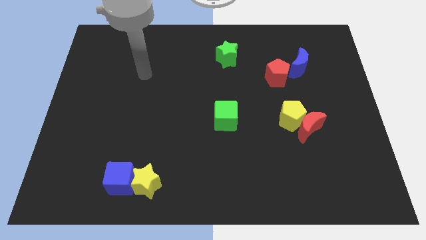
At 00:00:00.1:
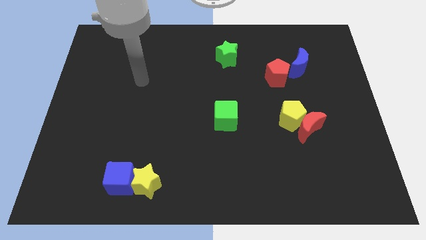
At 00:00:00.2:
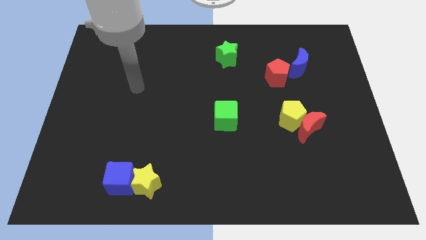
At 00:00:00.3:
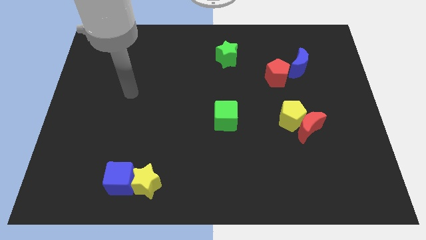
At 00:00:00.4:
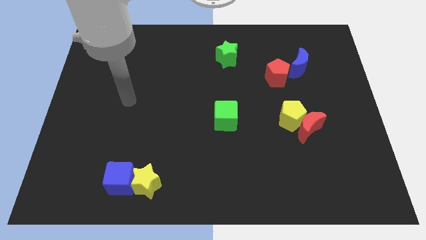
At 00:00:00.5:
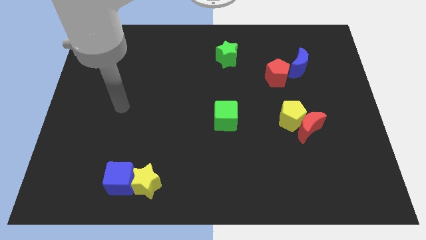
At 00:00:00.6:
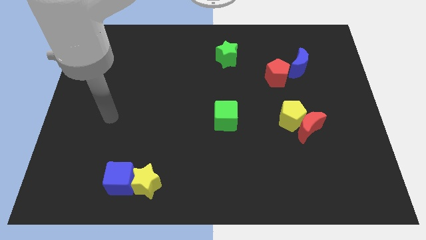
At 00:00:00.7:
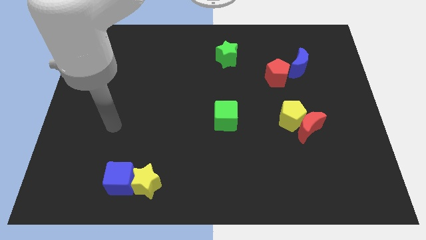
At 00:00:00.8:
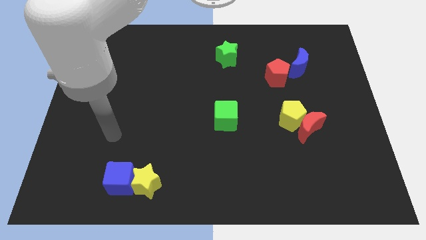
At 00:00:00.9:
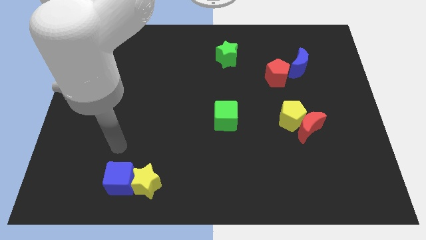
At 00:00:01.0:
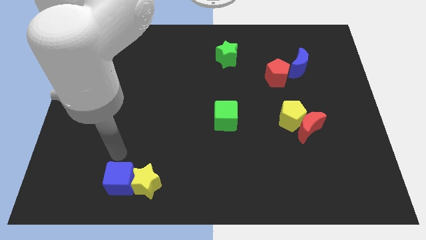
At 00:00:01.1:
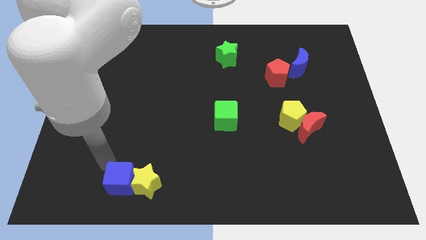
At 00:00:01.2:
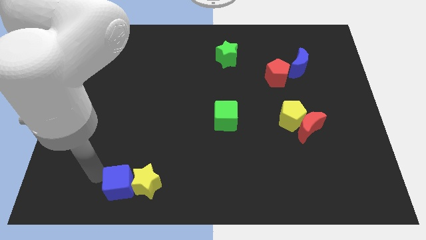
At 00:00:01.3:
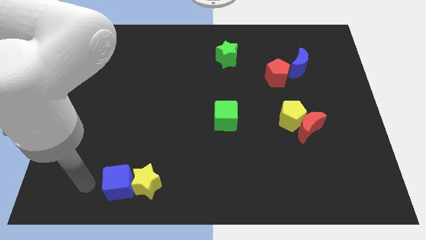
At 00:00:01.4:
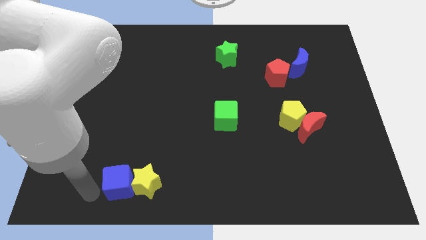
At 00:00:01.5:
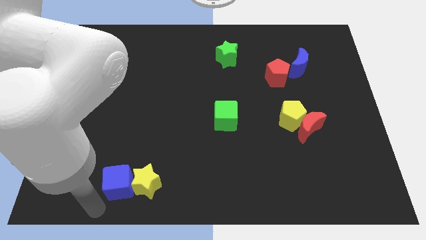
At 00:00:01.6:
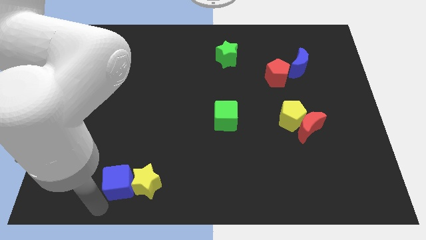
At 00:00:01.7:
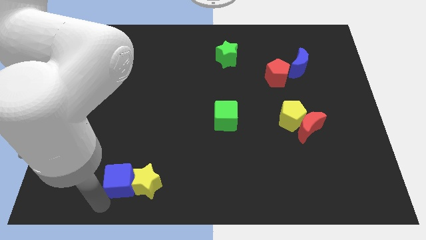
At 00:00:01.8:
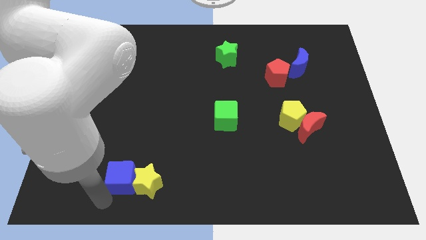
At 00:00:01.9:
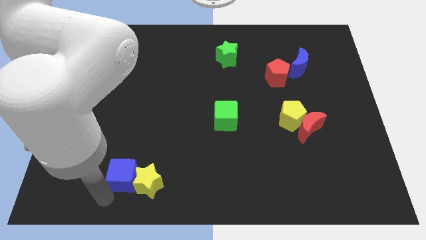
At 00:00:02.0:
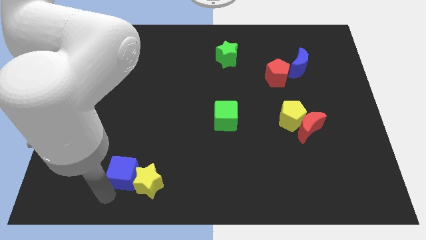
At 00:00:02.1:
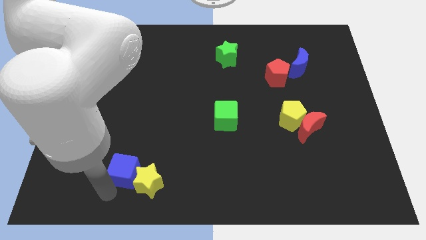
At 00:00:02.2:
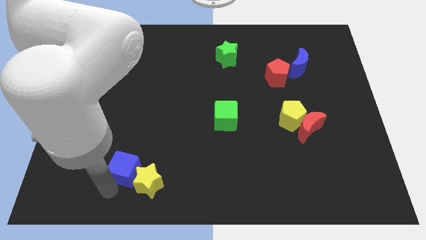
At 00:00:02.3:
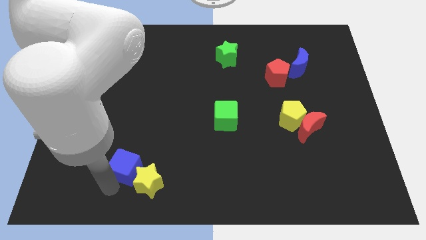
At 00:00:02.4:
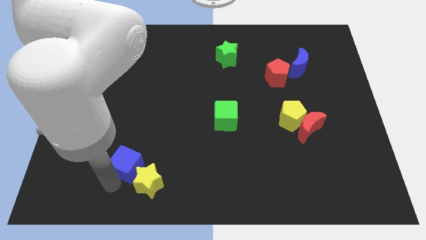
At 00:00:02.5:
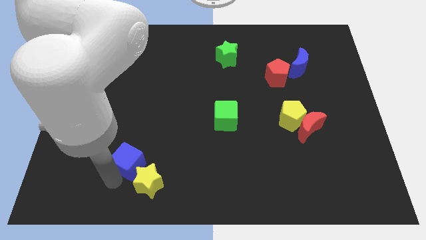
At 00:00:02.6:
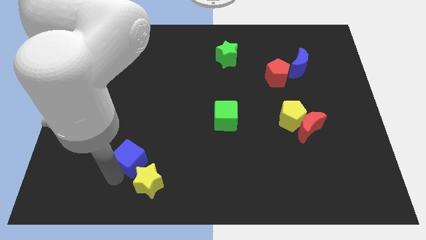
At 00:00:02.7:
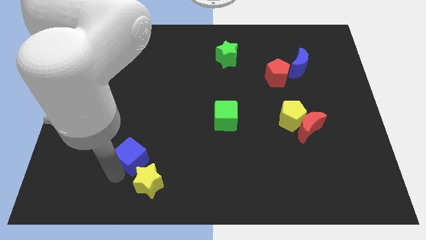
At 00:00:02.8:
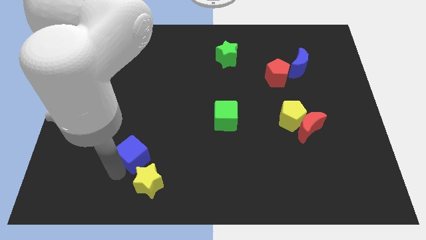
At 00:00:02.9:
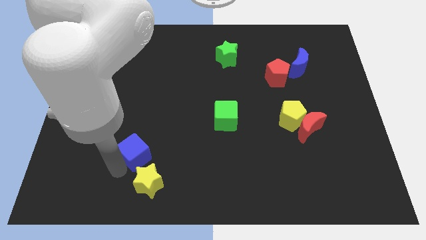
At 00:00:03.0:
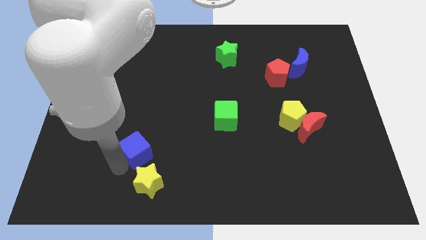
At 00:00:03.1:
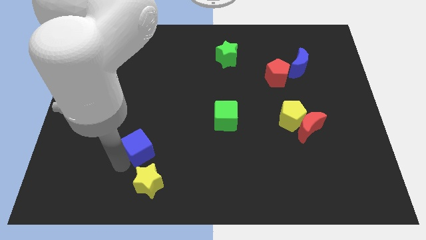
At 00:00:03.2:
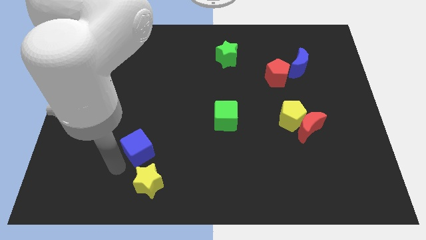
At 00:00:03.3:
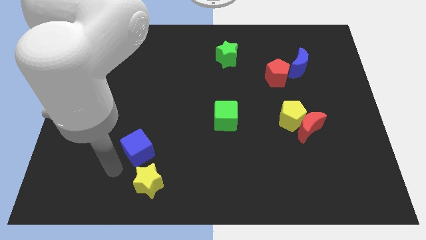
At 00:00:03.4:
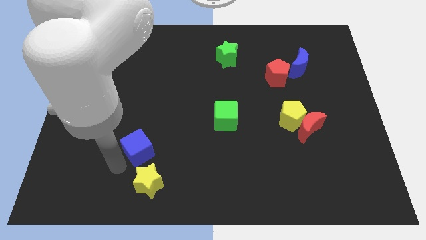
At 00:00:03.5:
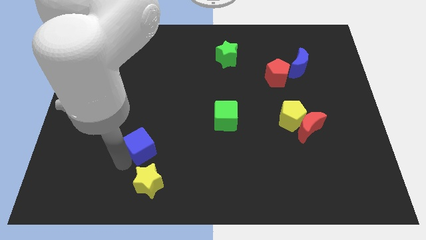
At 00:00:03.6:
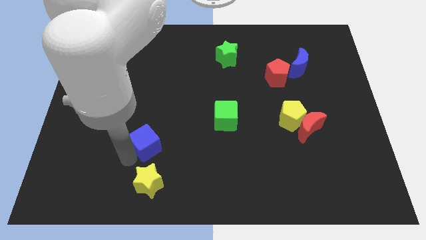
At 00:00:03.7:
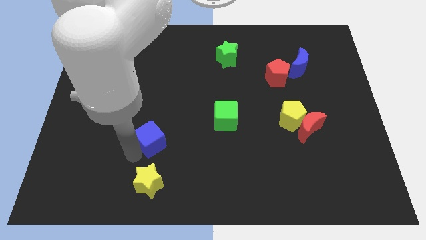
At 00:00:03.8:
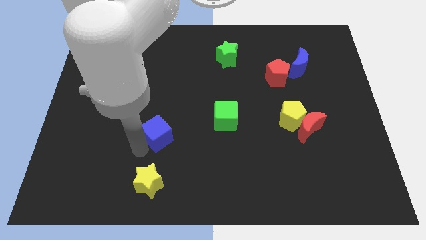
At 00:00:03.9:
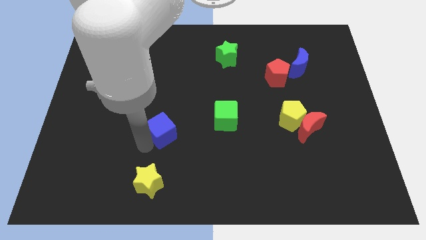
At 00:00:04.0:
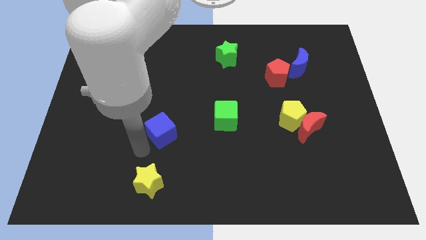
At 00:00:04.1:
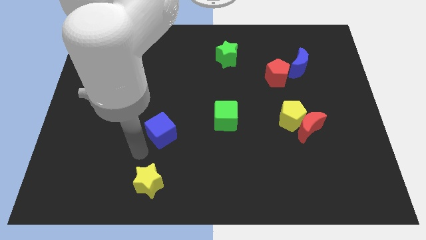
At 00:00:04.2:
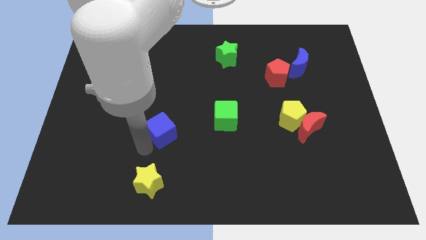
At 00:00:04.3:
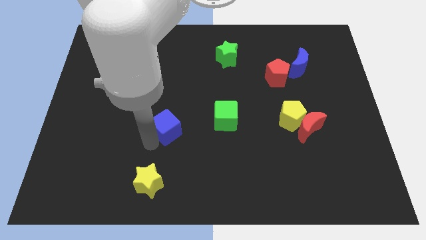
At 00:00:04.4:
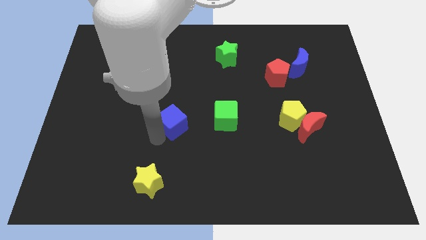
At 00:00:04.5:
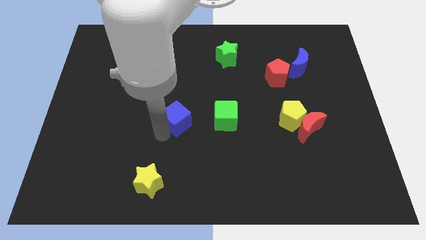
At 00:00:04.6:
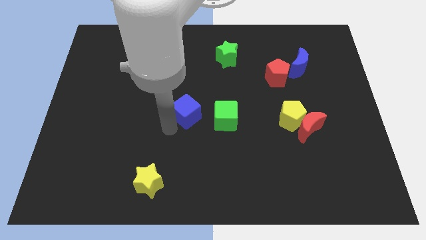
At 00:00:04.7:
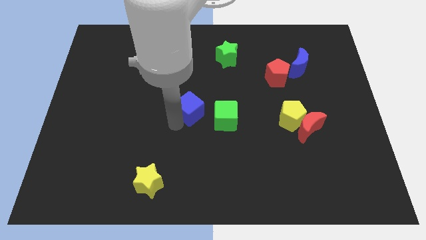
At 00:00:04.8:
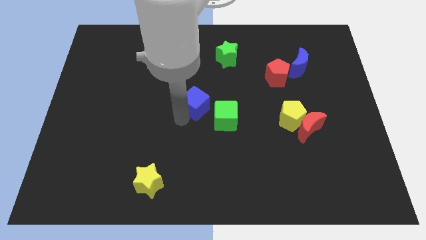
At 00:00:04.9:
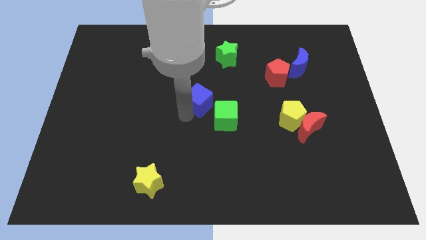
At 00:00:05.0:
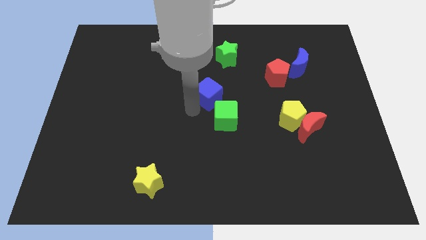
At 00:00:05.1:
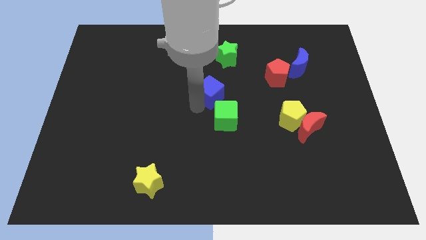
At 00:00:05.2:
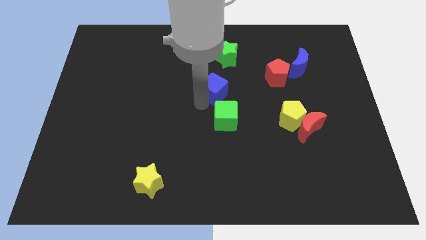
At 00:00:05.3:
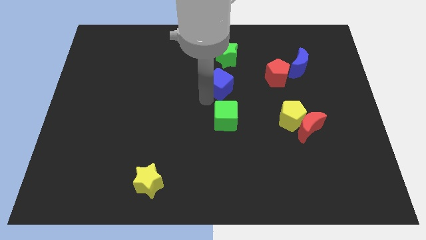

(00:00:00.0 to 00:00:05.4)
slide the blue cube just left of the red pentagon

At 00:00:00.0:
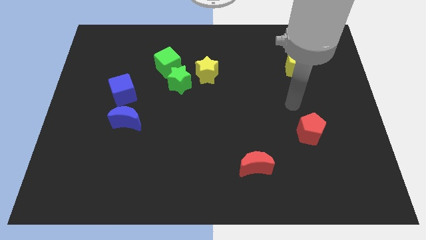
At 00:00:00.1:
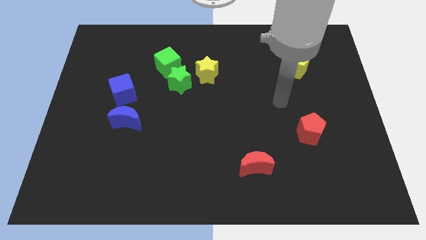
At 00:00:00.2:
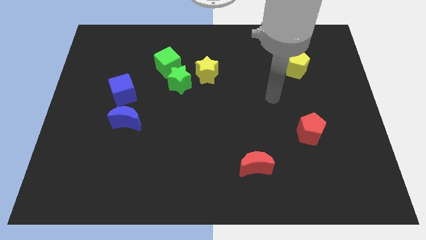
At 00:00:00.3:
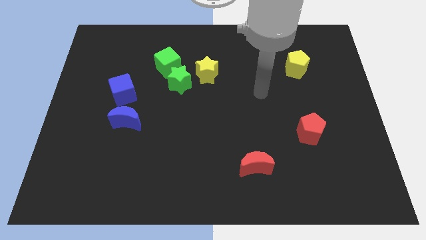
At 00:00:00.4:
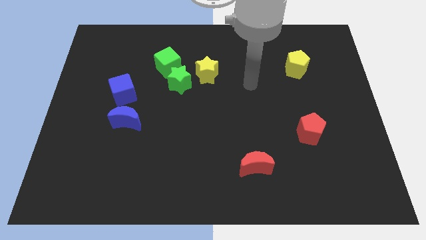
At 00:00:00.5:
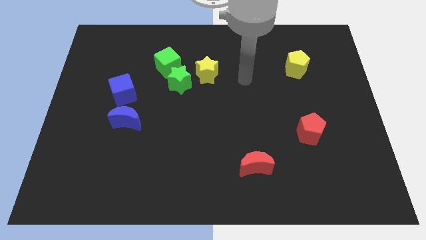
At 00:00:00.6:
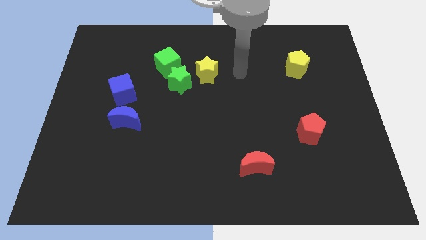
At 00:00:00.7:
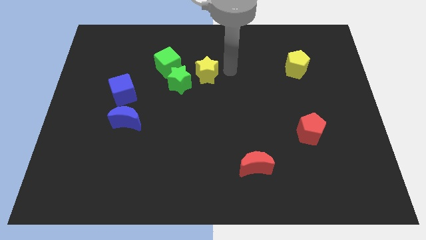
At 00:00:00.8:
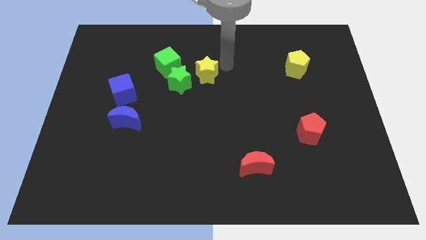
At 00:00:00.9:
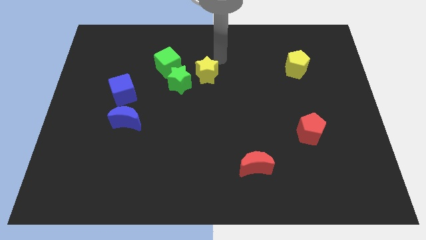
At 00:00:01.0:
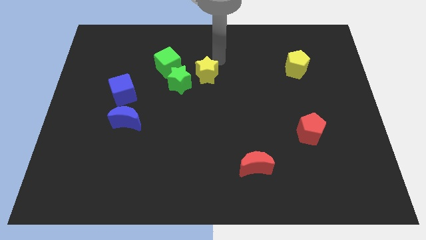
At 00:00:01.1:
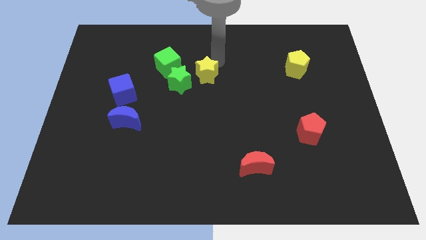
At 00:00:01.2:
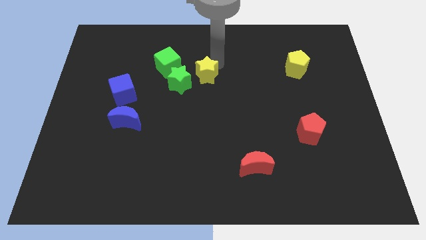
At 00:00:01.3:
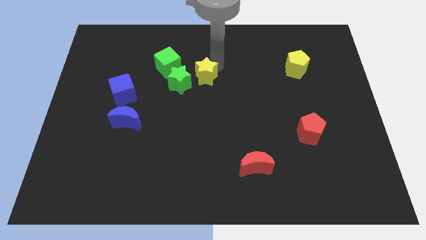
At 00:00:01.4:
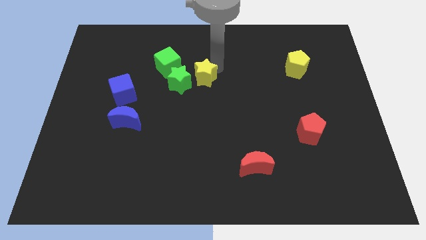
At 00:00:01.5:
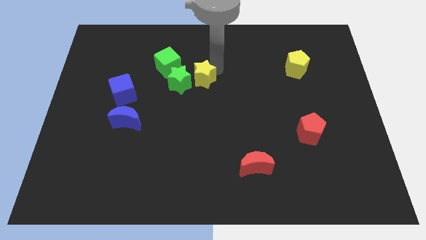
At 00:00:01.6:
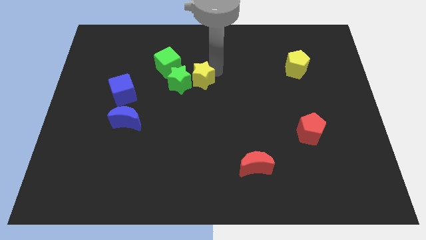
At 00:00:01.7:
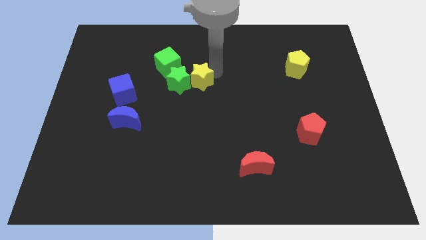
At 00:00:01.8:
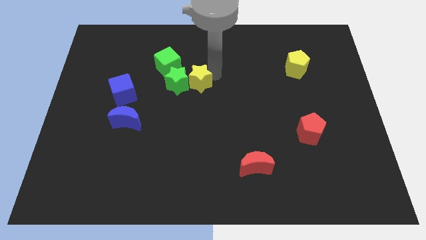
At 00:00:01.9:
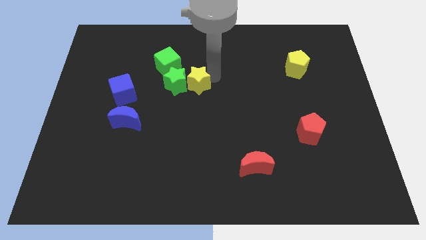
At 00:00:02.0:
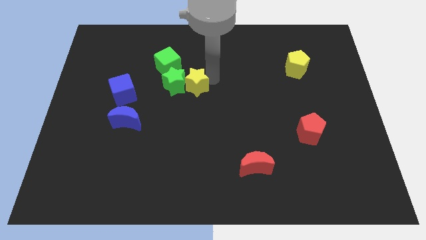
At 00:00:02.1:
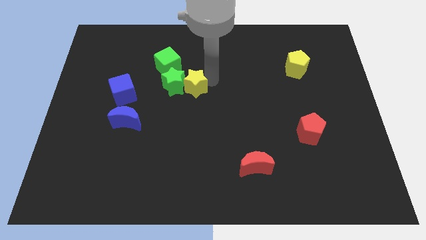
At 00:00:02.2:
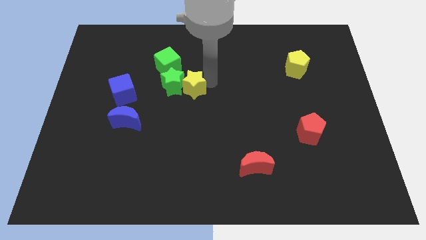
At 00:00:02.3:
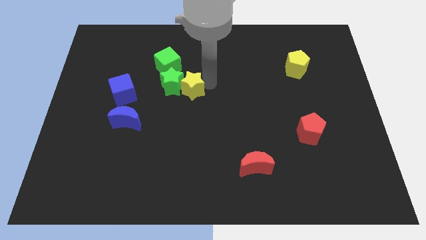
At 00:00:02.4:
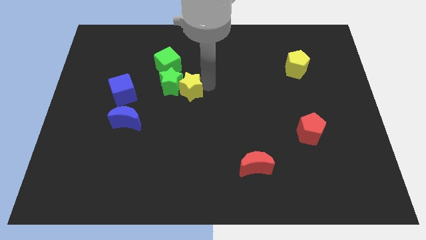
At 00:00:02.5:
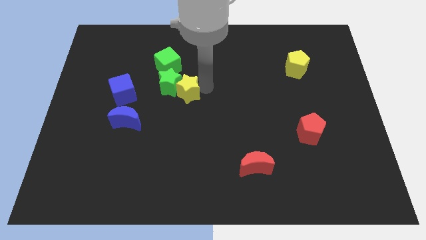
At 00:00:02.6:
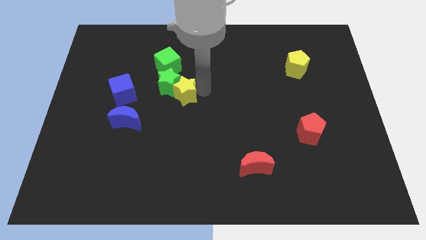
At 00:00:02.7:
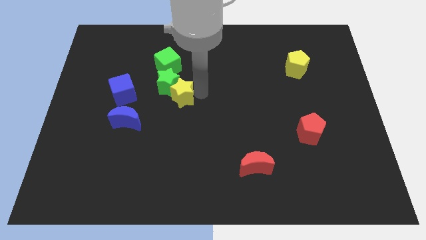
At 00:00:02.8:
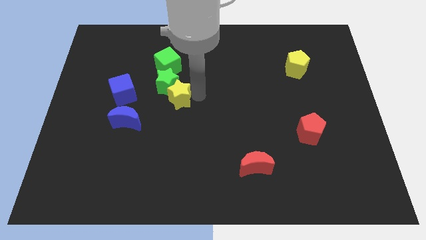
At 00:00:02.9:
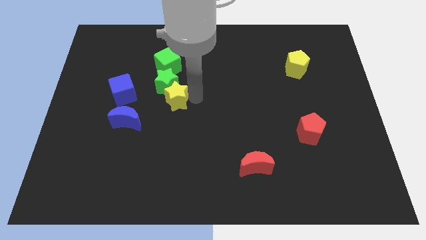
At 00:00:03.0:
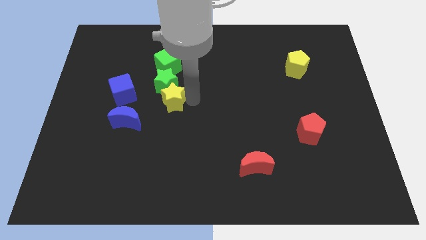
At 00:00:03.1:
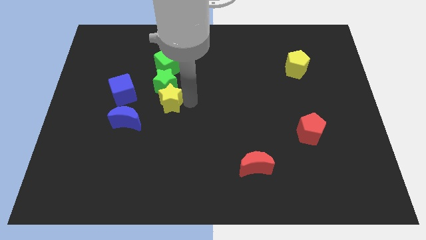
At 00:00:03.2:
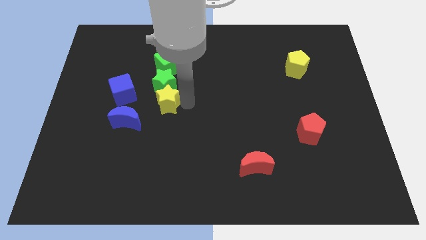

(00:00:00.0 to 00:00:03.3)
put the yellow star diagonally down and to the left of the green star
